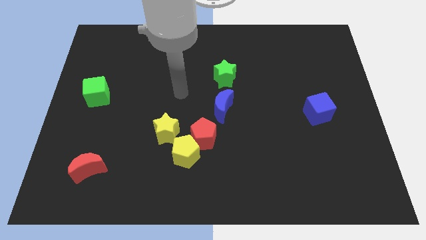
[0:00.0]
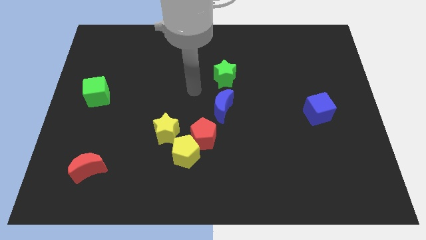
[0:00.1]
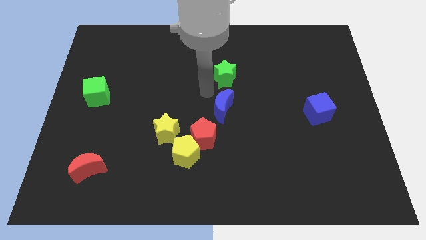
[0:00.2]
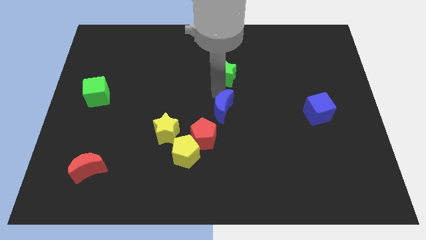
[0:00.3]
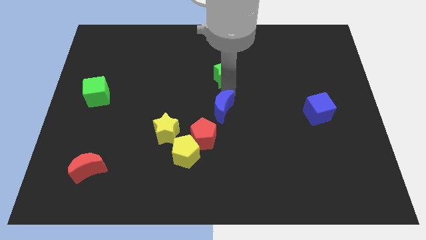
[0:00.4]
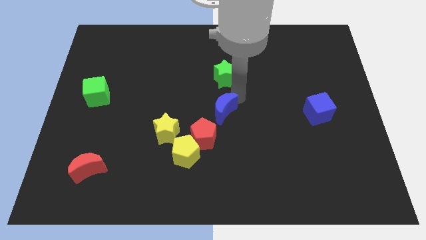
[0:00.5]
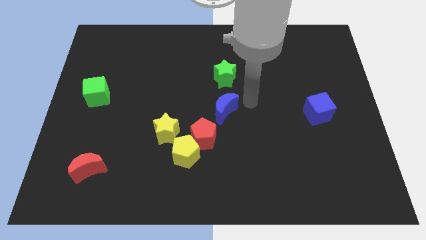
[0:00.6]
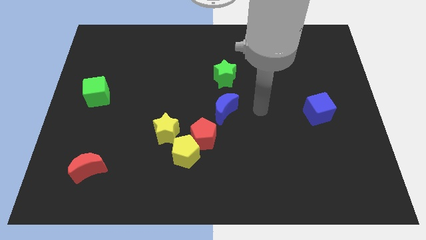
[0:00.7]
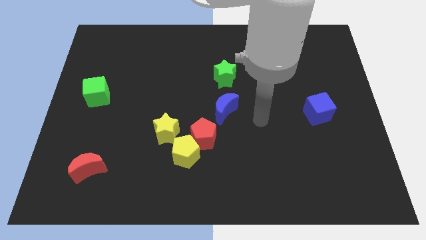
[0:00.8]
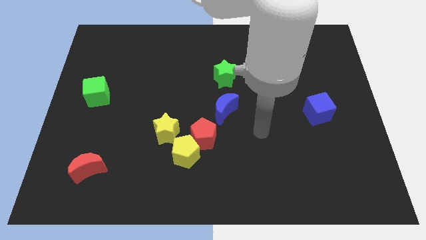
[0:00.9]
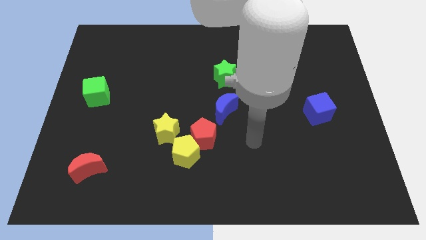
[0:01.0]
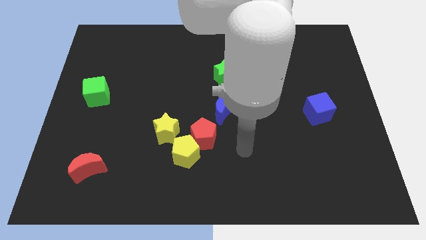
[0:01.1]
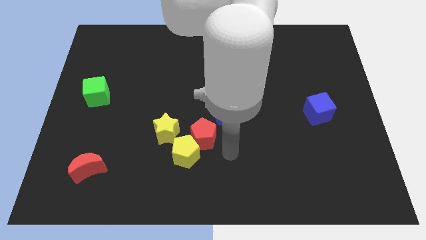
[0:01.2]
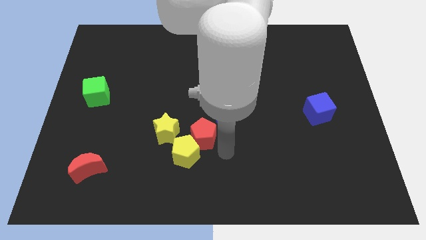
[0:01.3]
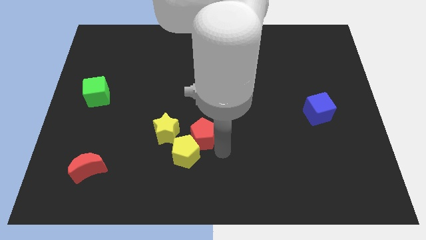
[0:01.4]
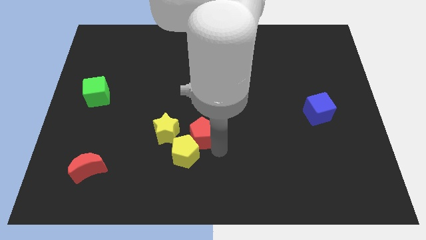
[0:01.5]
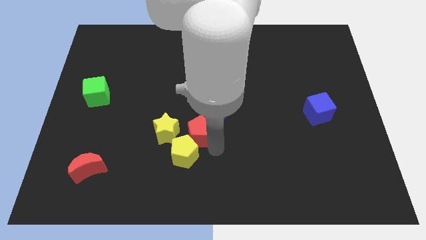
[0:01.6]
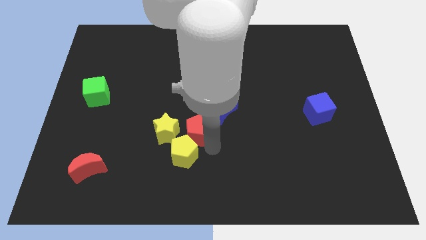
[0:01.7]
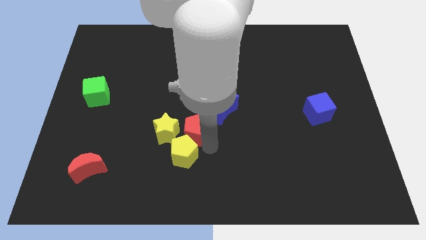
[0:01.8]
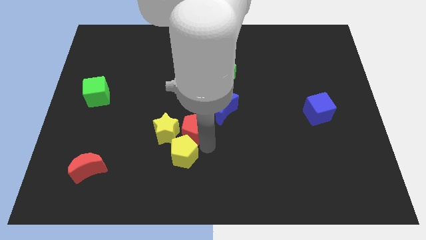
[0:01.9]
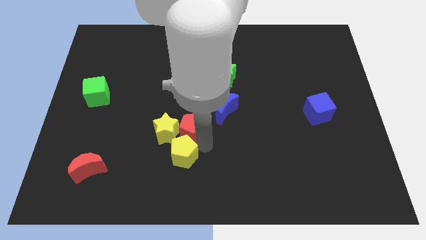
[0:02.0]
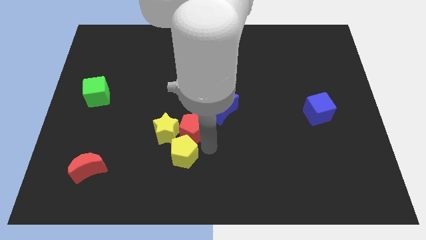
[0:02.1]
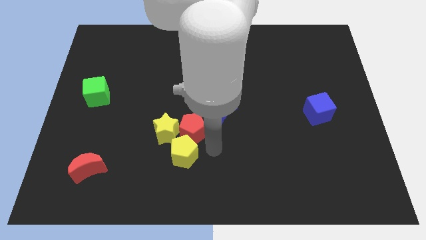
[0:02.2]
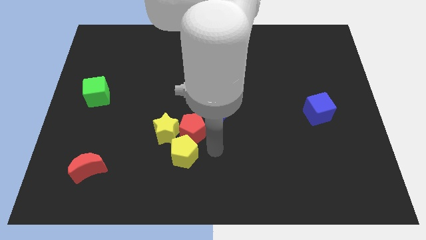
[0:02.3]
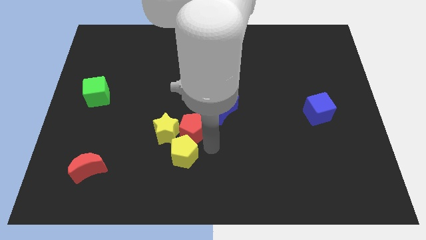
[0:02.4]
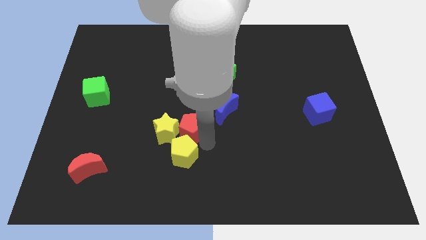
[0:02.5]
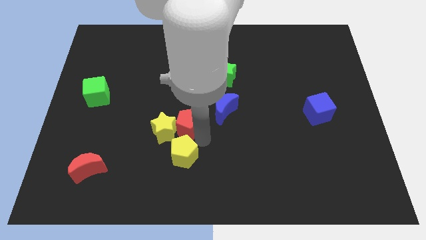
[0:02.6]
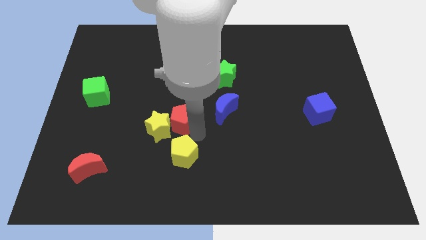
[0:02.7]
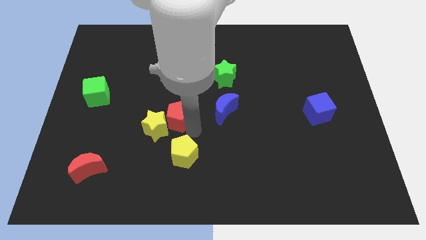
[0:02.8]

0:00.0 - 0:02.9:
slide the red pentagon upwards and left diagonally a little

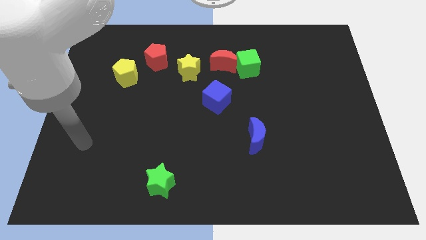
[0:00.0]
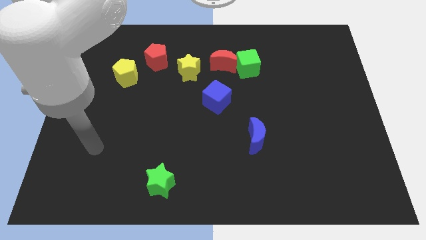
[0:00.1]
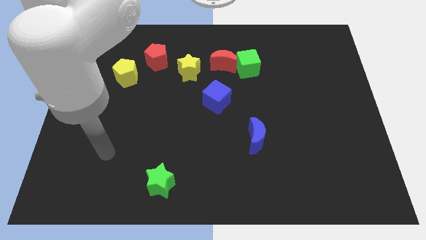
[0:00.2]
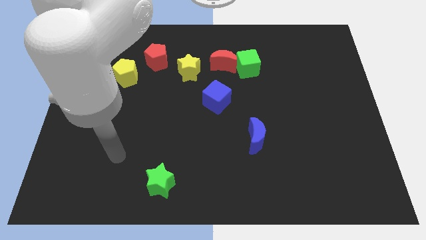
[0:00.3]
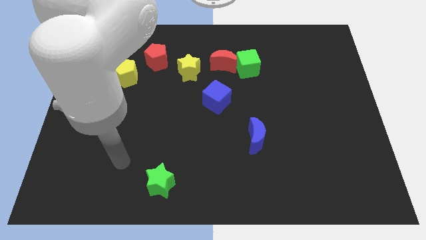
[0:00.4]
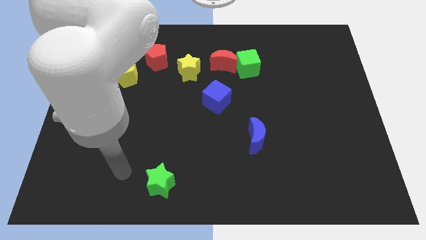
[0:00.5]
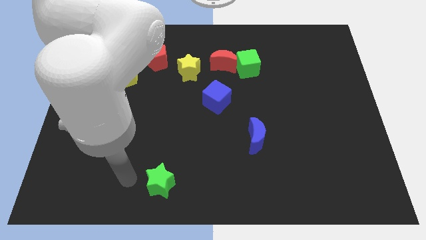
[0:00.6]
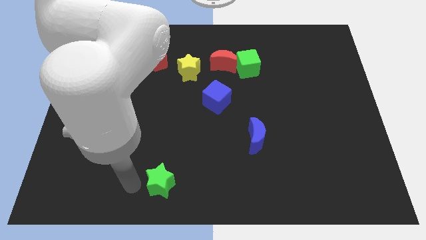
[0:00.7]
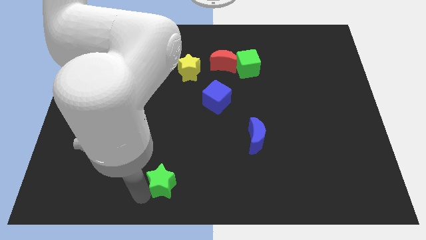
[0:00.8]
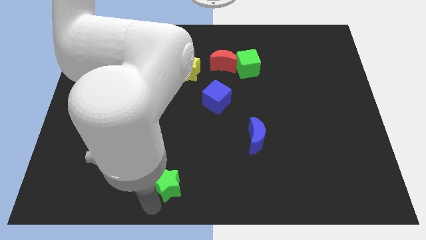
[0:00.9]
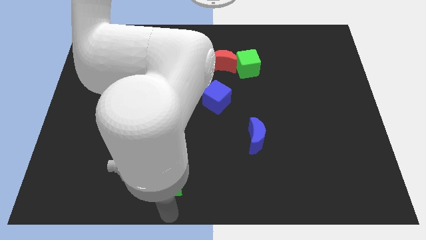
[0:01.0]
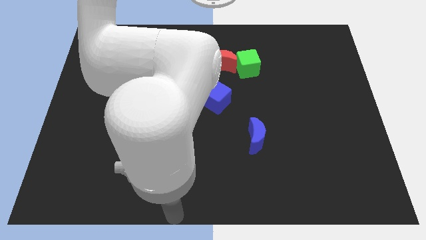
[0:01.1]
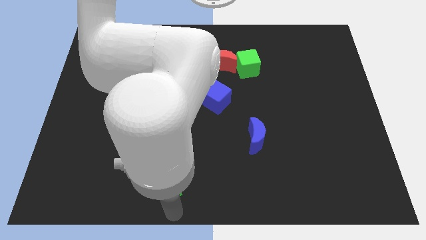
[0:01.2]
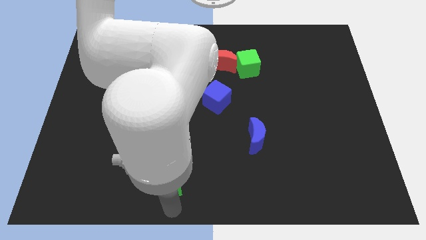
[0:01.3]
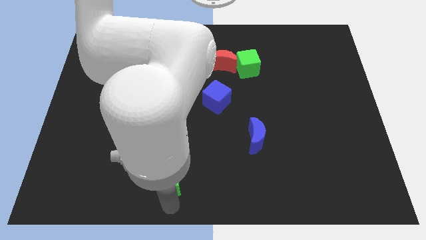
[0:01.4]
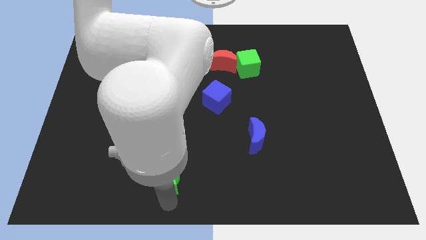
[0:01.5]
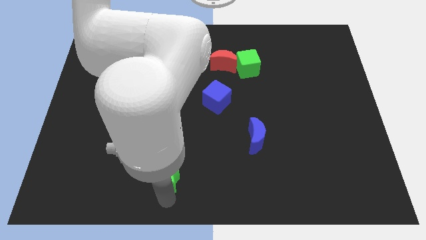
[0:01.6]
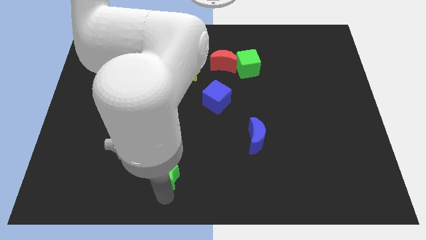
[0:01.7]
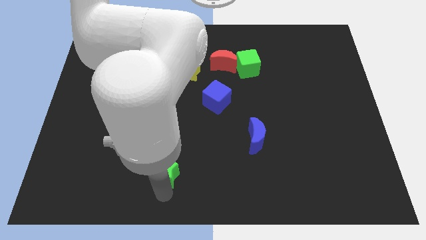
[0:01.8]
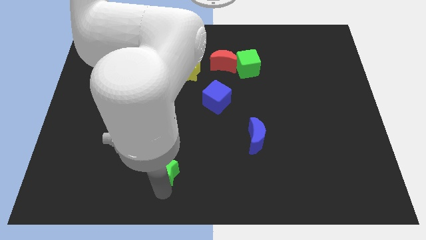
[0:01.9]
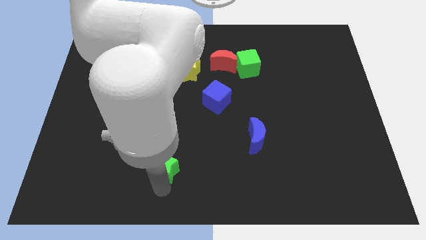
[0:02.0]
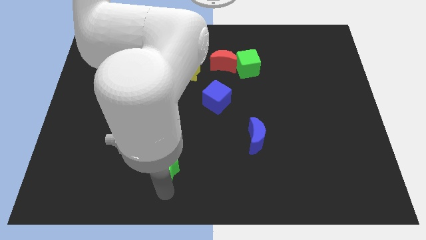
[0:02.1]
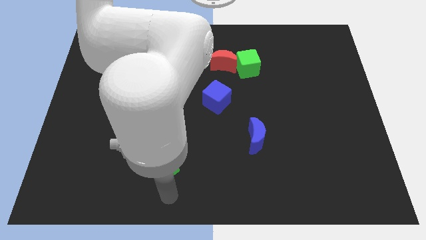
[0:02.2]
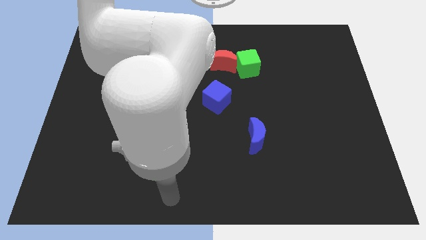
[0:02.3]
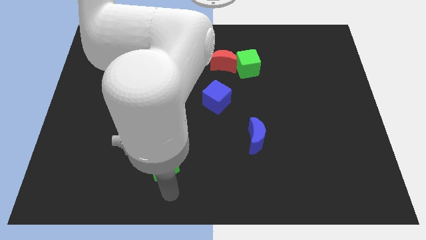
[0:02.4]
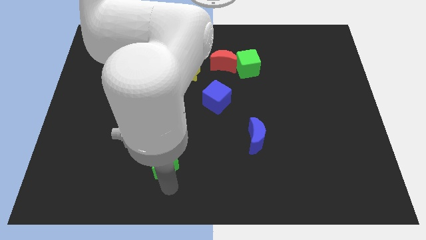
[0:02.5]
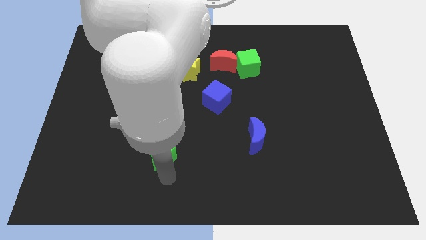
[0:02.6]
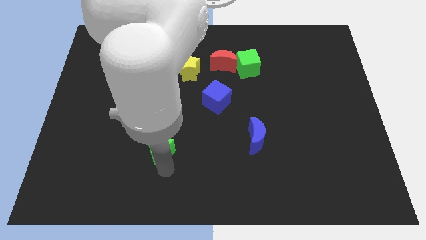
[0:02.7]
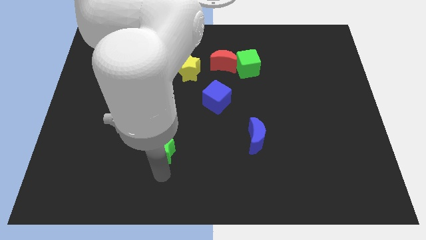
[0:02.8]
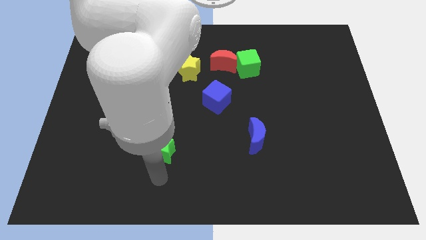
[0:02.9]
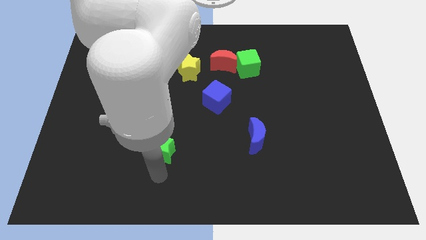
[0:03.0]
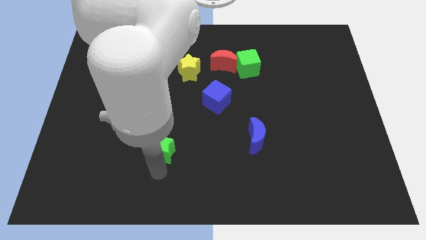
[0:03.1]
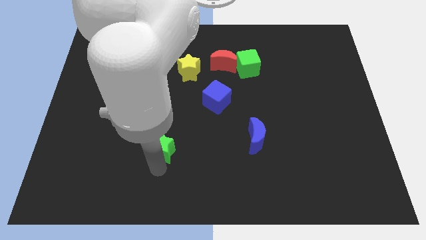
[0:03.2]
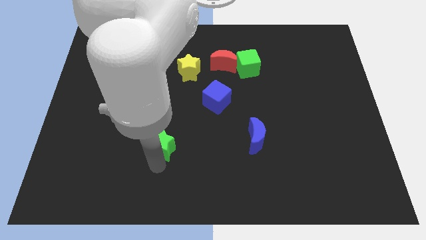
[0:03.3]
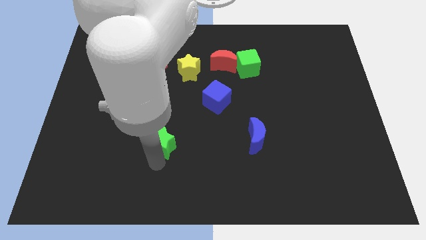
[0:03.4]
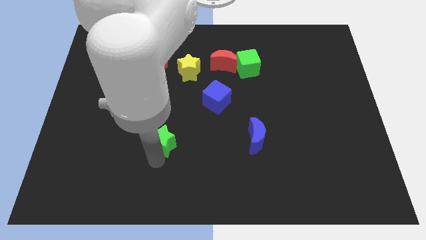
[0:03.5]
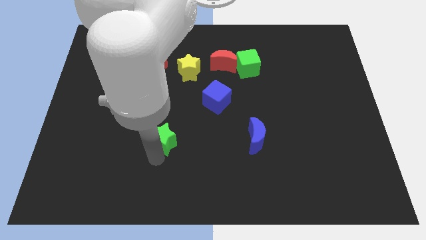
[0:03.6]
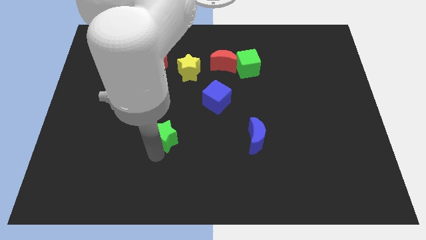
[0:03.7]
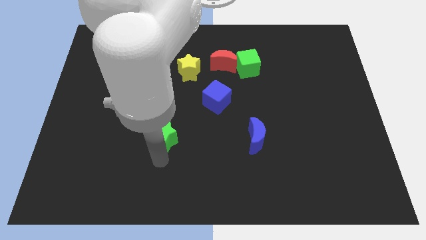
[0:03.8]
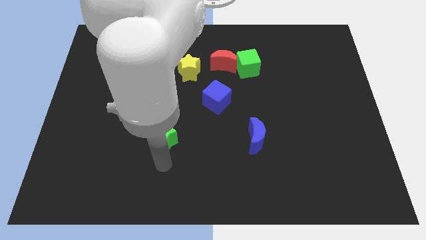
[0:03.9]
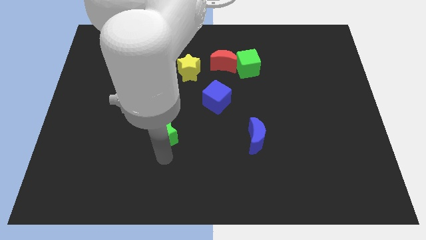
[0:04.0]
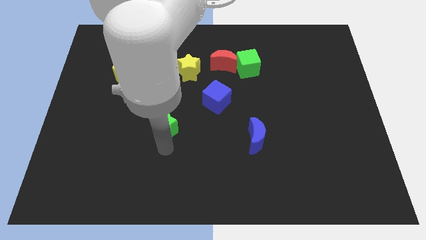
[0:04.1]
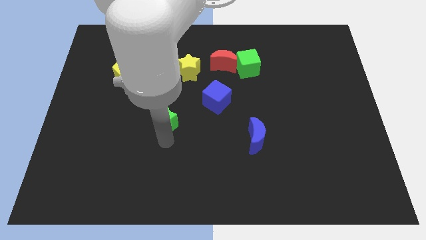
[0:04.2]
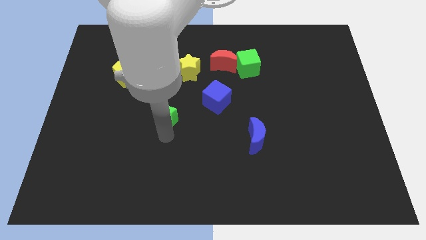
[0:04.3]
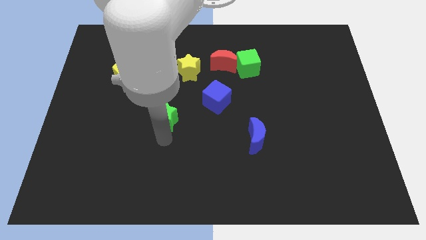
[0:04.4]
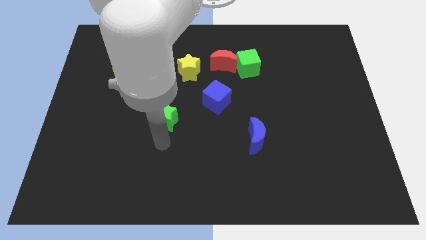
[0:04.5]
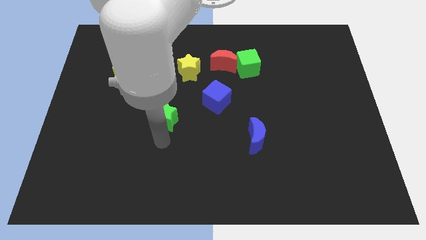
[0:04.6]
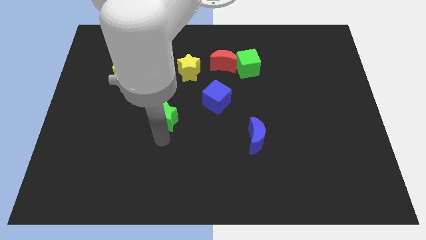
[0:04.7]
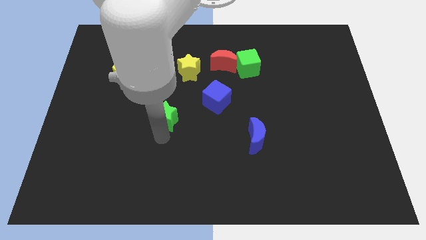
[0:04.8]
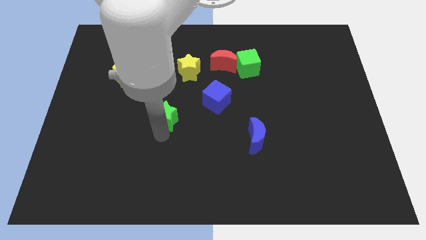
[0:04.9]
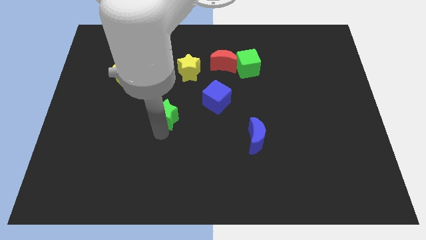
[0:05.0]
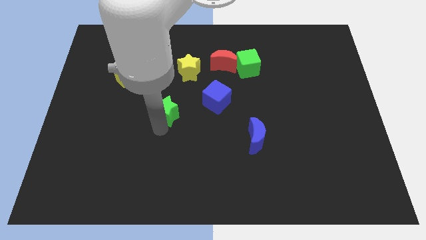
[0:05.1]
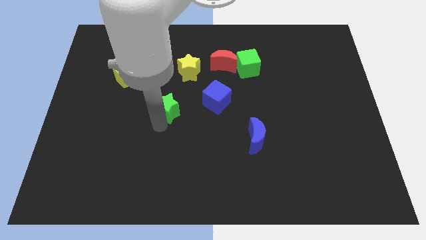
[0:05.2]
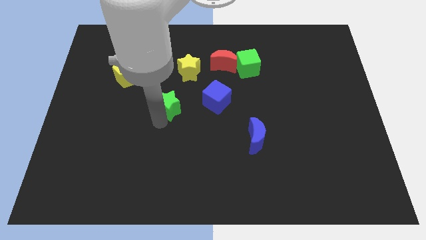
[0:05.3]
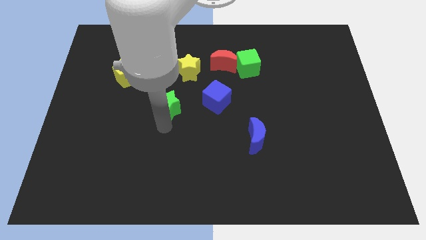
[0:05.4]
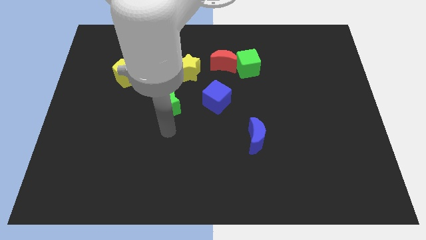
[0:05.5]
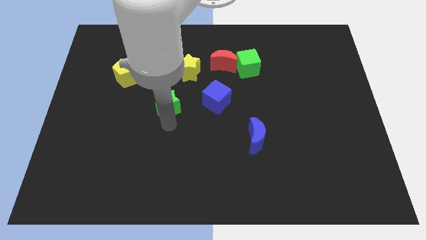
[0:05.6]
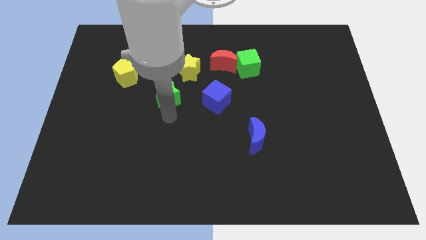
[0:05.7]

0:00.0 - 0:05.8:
slide the green star upwards
